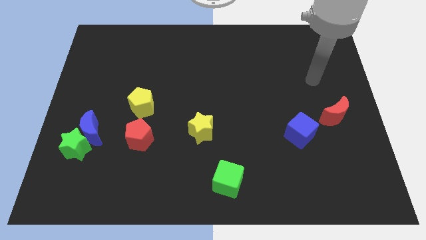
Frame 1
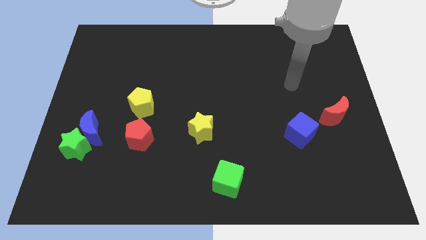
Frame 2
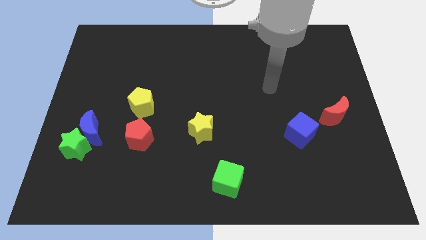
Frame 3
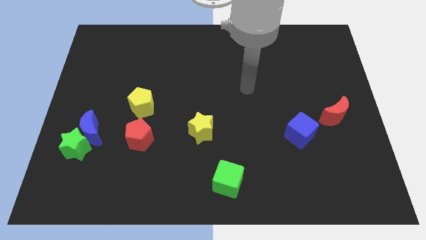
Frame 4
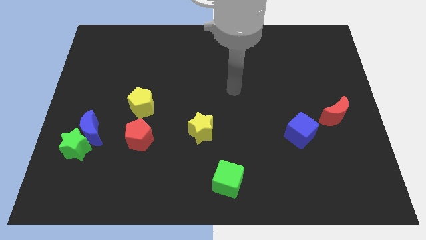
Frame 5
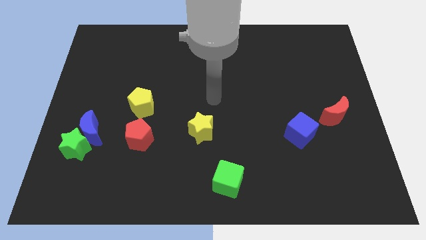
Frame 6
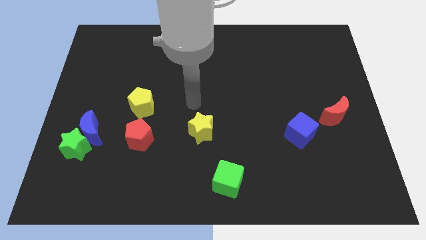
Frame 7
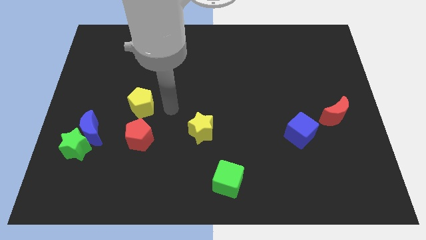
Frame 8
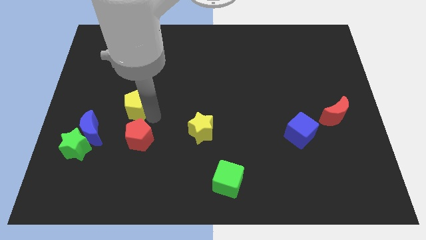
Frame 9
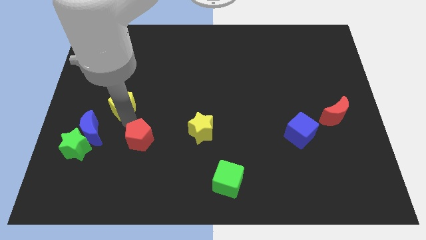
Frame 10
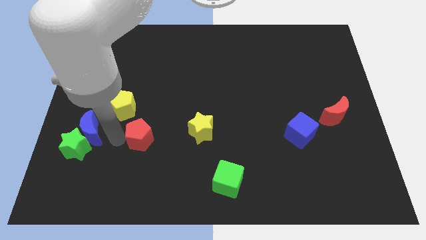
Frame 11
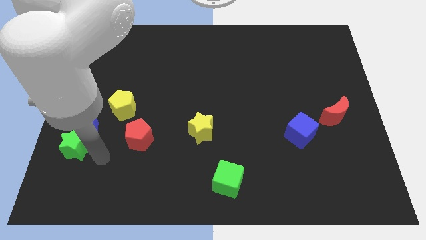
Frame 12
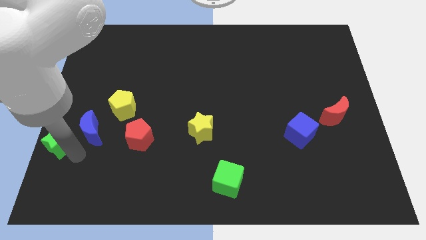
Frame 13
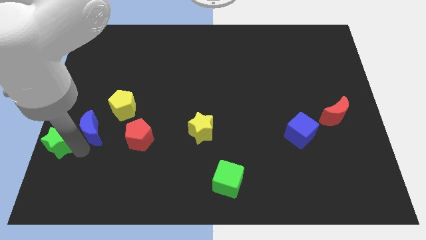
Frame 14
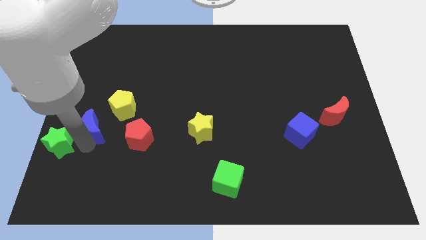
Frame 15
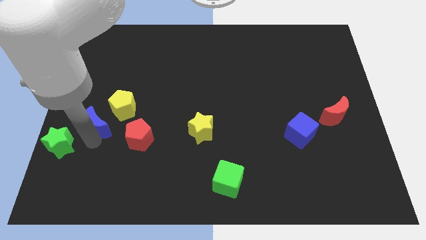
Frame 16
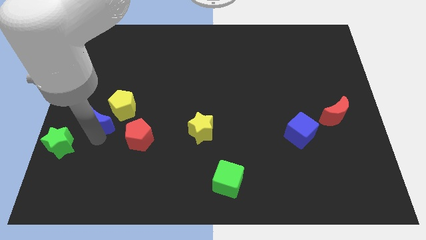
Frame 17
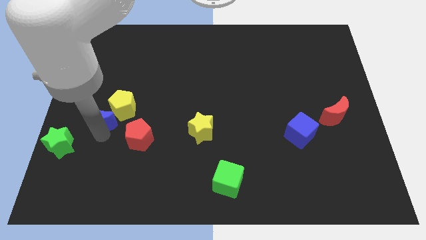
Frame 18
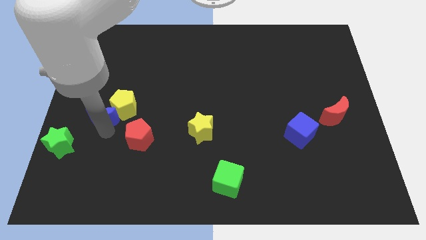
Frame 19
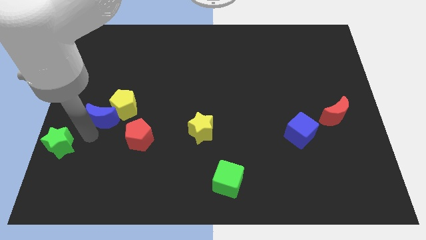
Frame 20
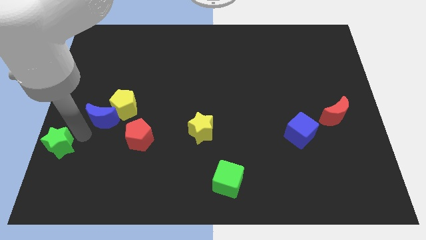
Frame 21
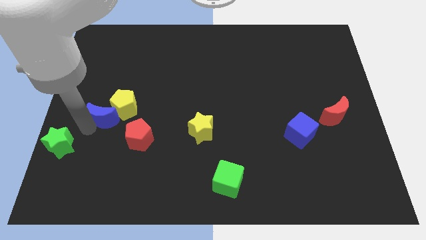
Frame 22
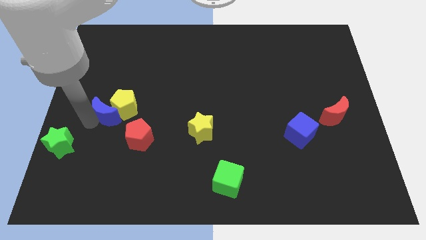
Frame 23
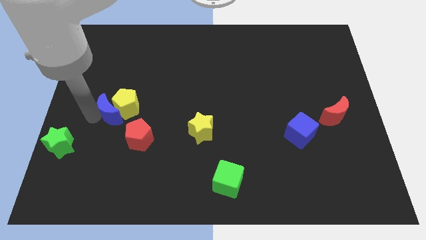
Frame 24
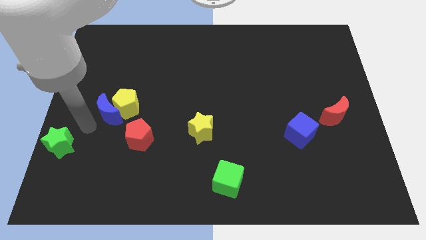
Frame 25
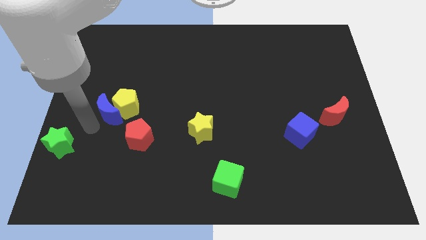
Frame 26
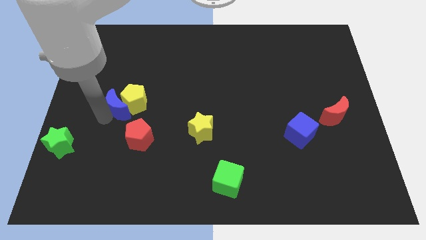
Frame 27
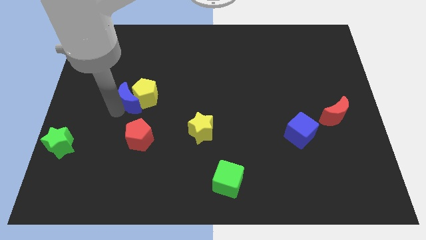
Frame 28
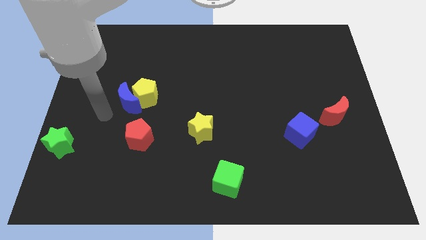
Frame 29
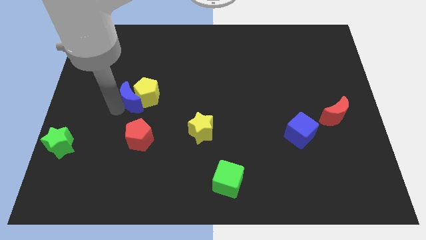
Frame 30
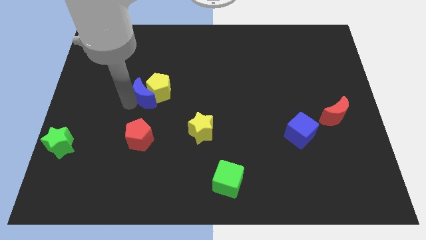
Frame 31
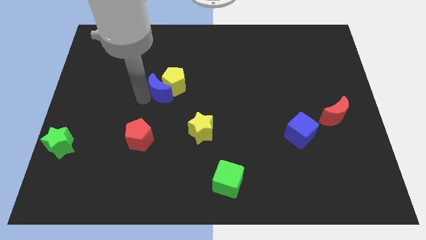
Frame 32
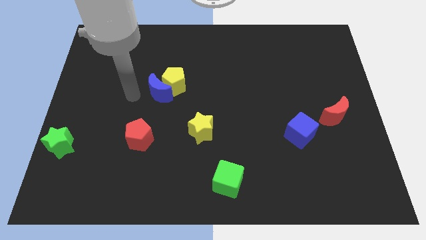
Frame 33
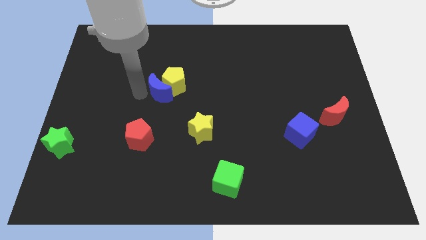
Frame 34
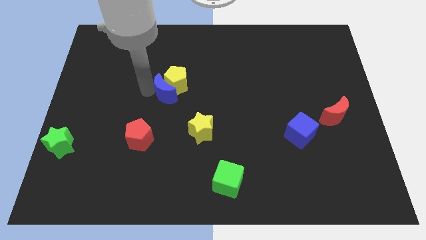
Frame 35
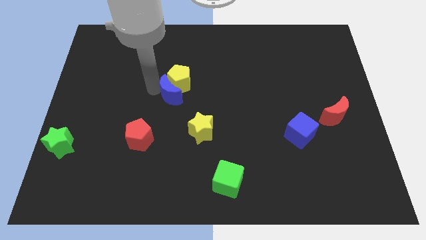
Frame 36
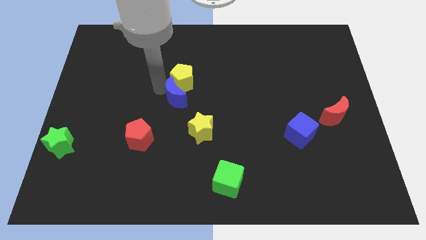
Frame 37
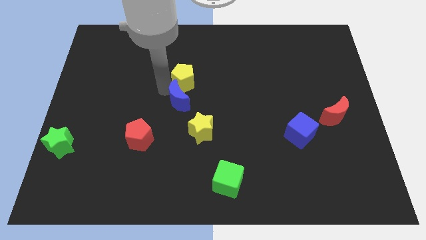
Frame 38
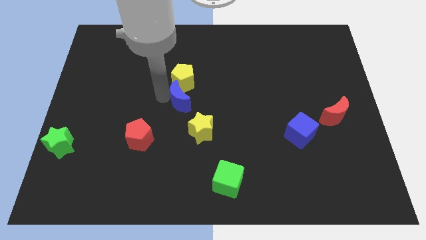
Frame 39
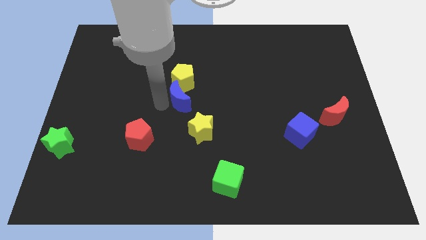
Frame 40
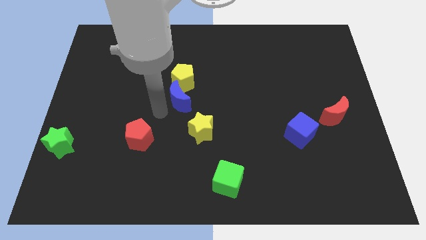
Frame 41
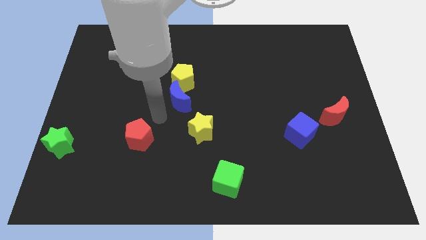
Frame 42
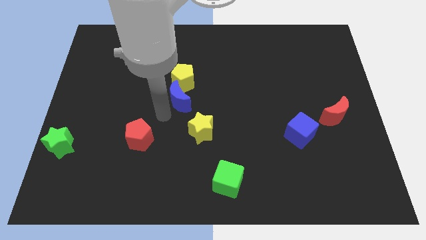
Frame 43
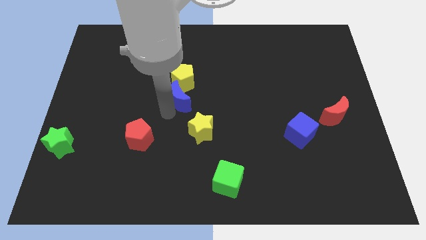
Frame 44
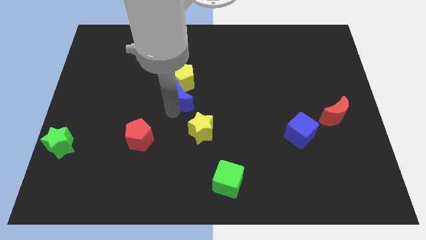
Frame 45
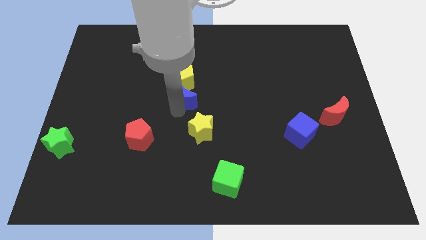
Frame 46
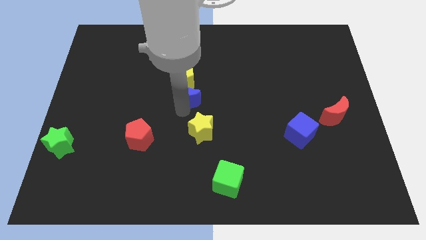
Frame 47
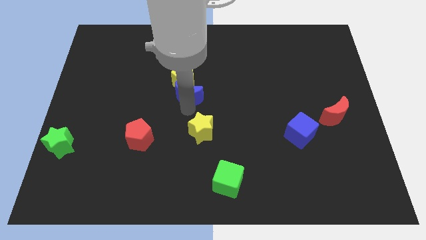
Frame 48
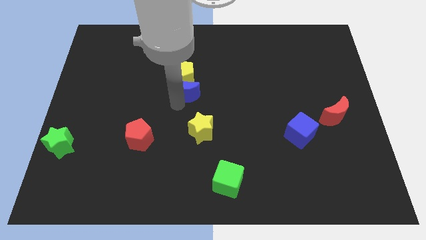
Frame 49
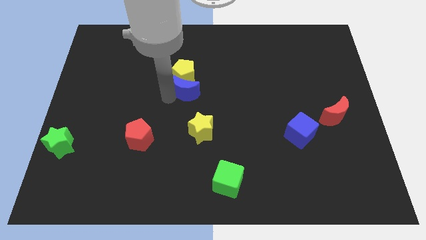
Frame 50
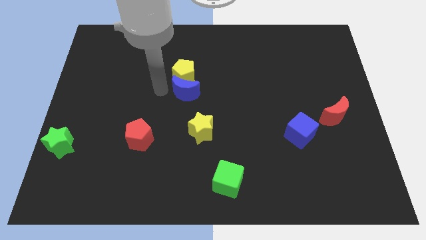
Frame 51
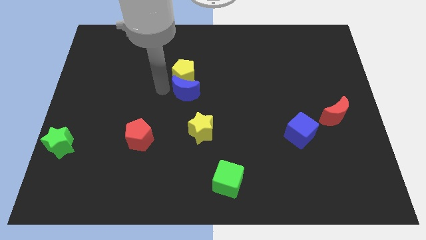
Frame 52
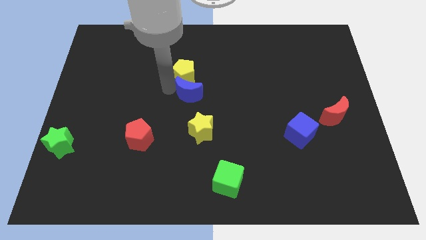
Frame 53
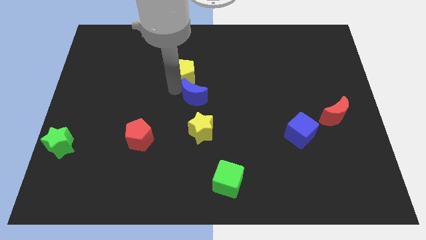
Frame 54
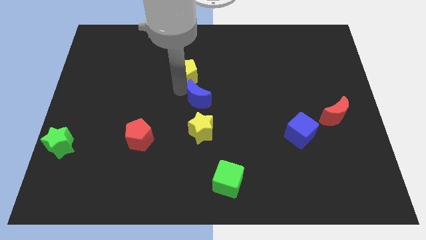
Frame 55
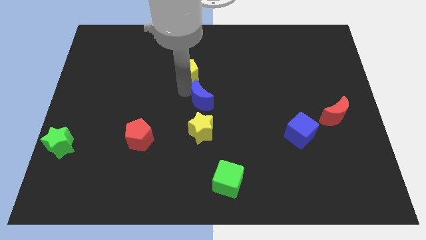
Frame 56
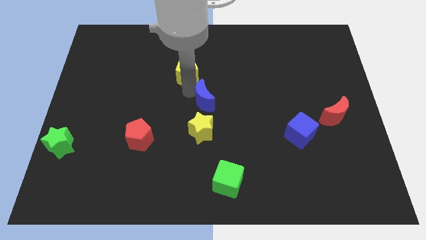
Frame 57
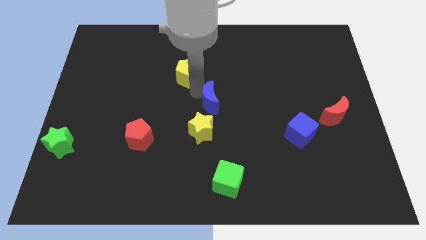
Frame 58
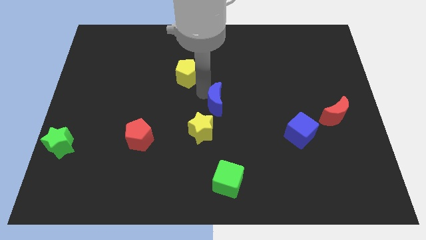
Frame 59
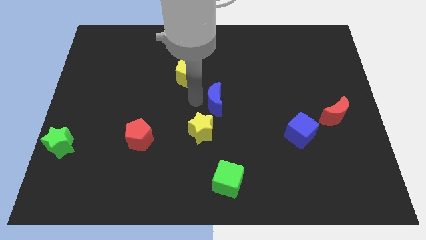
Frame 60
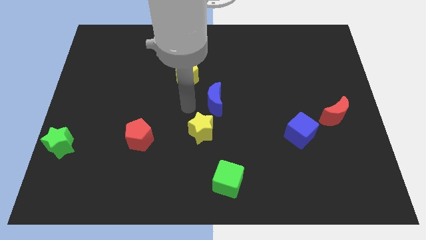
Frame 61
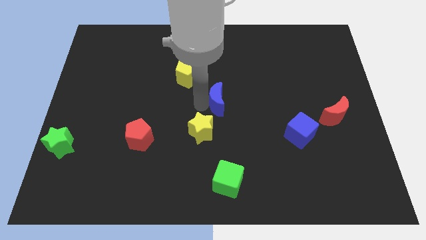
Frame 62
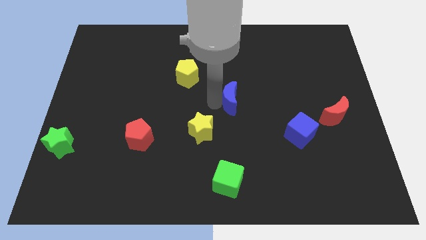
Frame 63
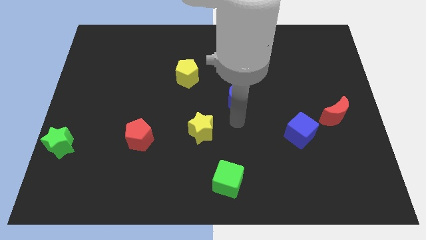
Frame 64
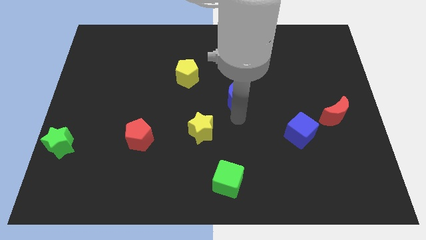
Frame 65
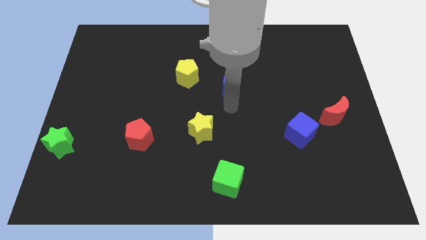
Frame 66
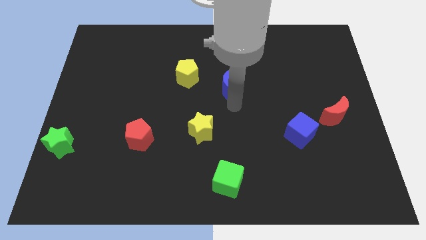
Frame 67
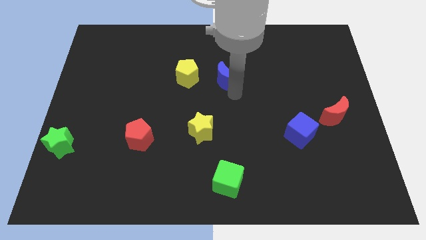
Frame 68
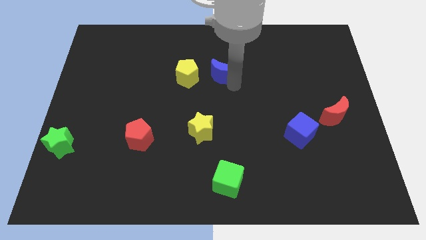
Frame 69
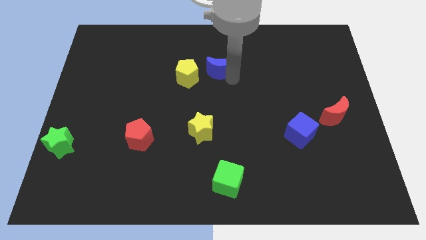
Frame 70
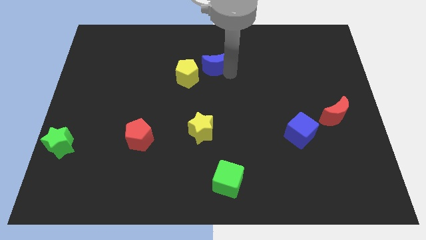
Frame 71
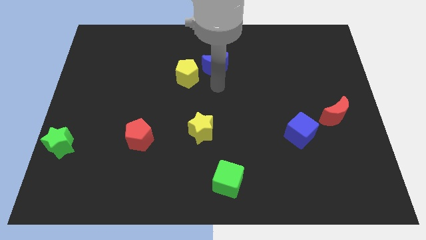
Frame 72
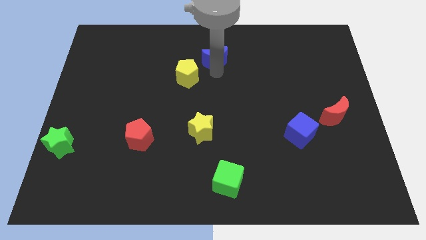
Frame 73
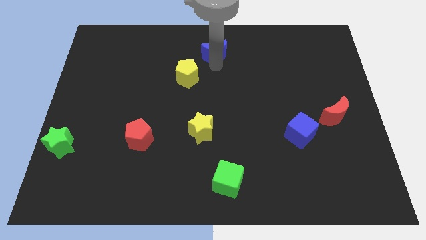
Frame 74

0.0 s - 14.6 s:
slide the blue moon to the top
